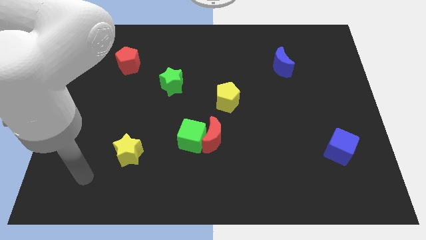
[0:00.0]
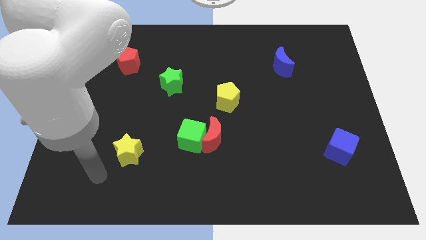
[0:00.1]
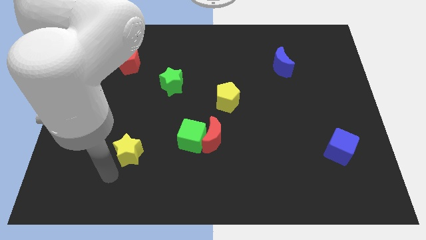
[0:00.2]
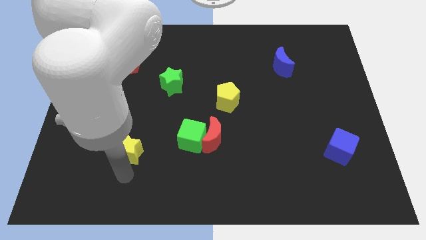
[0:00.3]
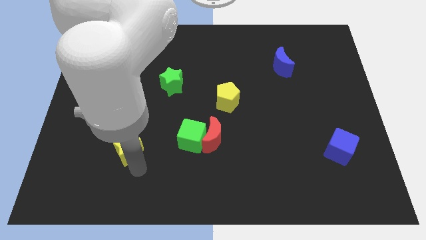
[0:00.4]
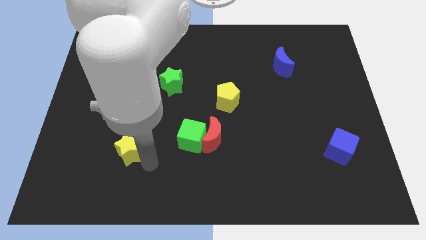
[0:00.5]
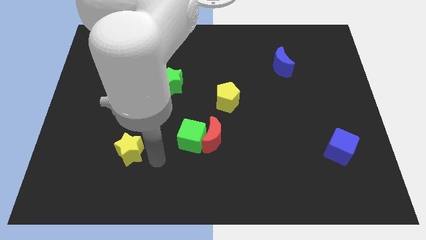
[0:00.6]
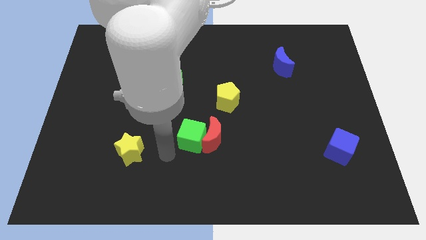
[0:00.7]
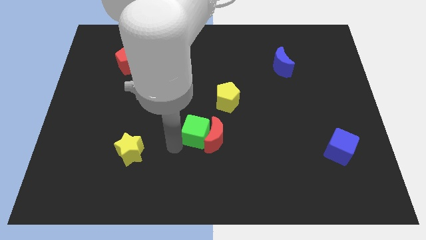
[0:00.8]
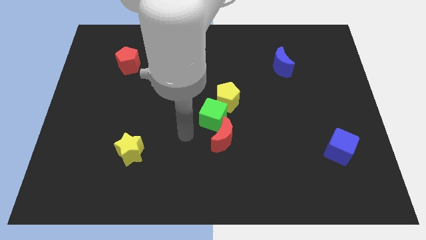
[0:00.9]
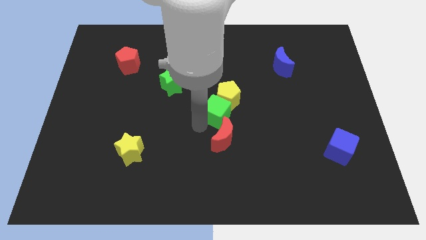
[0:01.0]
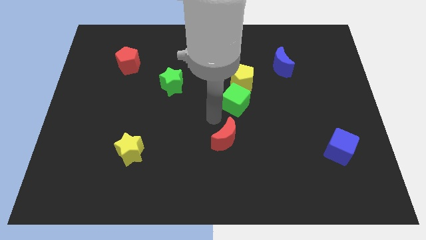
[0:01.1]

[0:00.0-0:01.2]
separate the red moon from the green cube

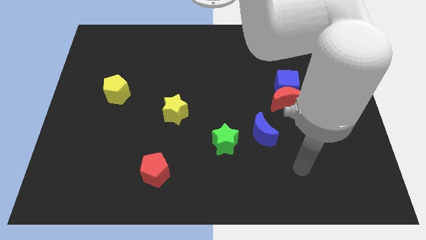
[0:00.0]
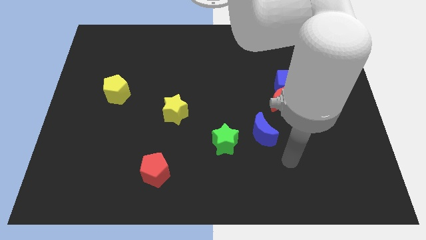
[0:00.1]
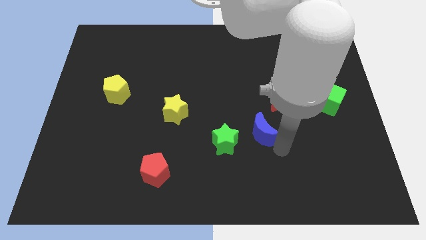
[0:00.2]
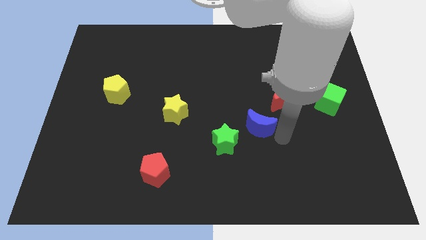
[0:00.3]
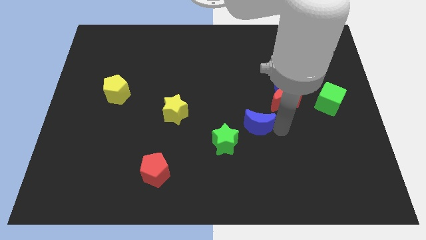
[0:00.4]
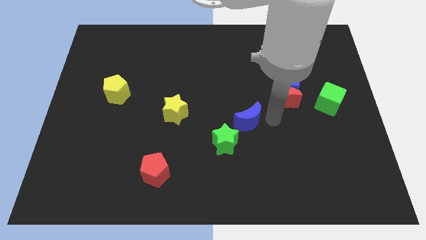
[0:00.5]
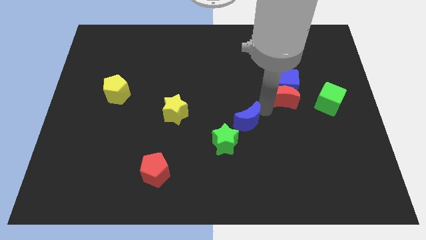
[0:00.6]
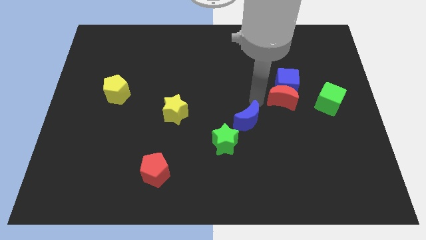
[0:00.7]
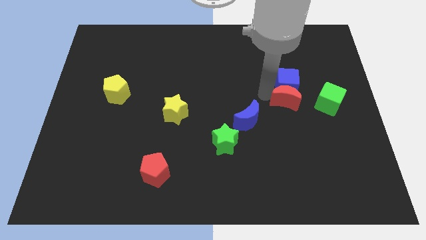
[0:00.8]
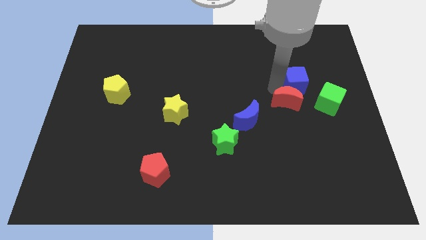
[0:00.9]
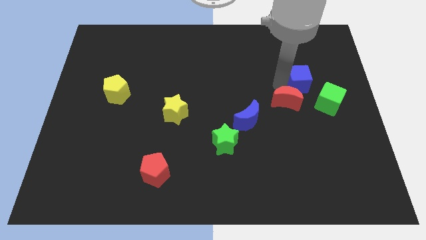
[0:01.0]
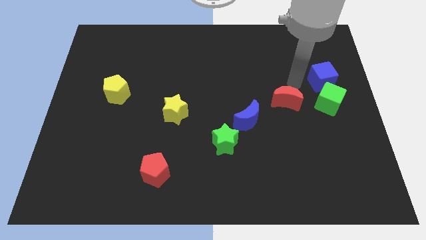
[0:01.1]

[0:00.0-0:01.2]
move the red moon away from the blue cube

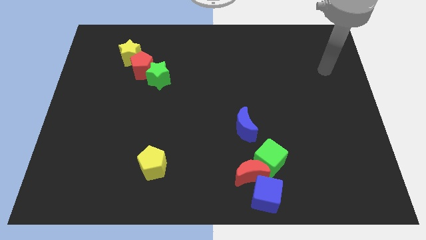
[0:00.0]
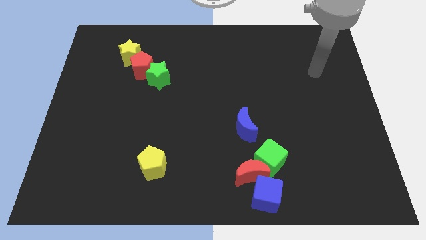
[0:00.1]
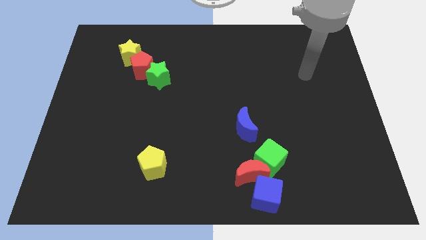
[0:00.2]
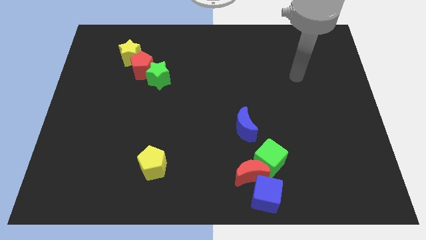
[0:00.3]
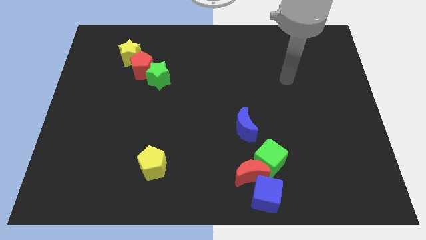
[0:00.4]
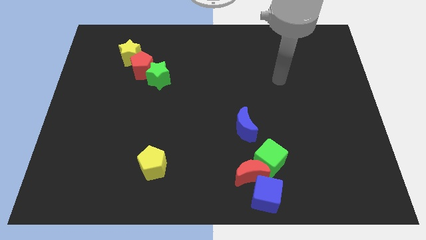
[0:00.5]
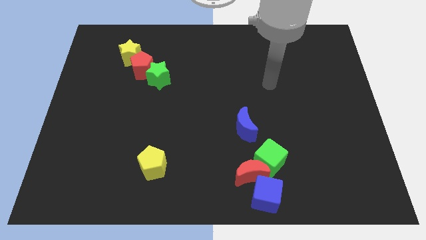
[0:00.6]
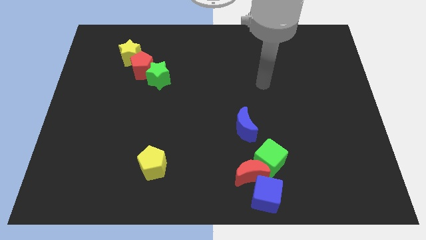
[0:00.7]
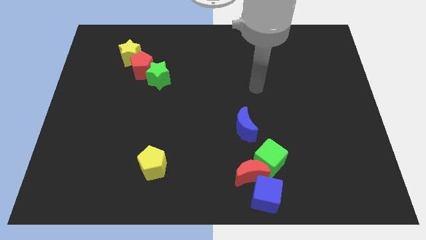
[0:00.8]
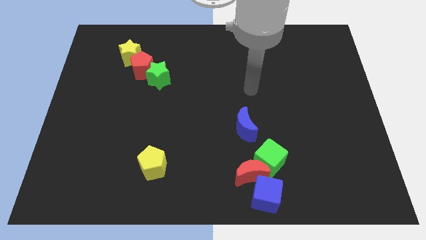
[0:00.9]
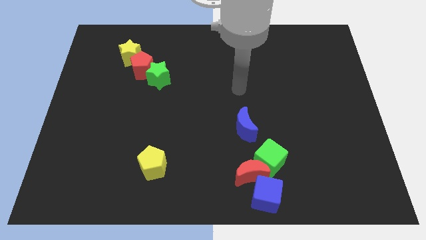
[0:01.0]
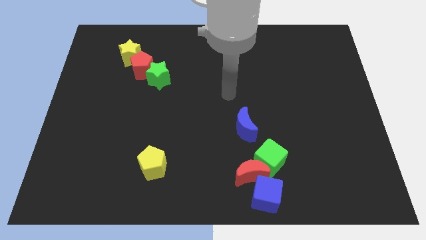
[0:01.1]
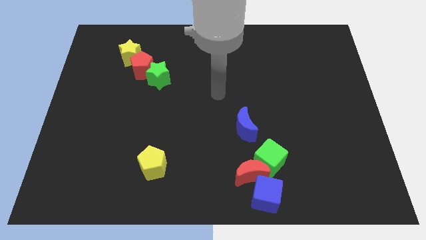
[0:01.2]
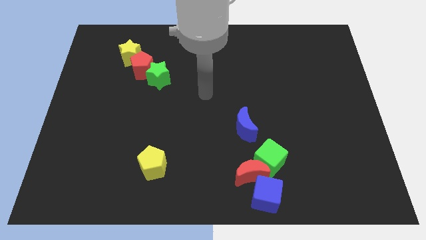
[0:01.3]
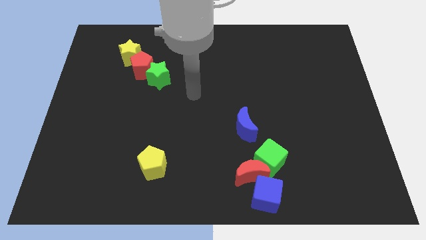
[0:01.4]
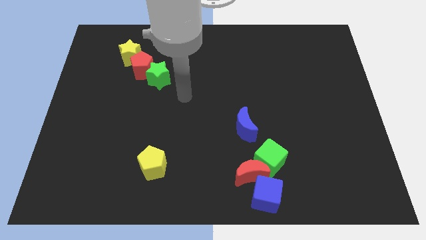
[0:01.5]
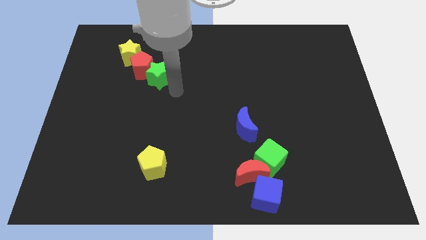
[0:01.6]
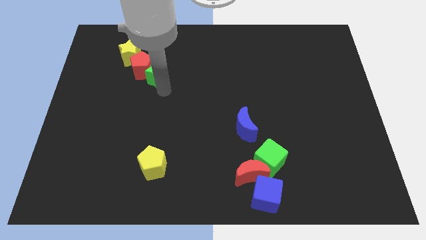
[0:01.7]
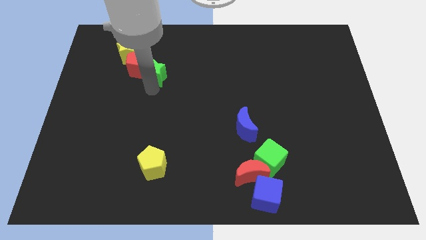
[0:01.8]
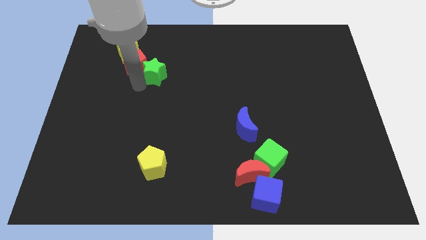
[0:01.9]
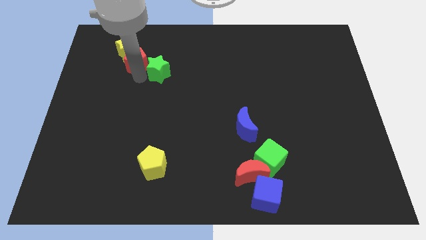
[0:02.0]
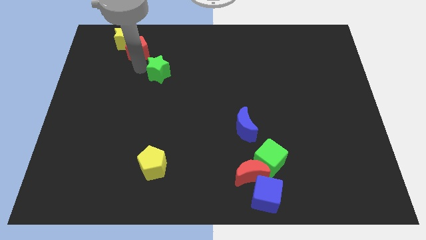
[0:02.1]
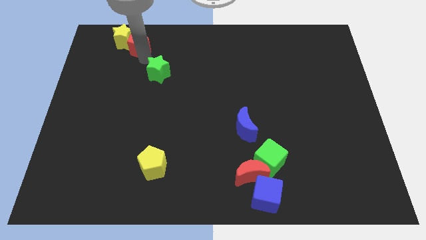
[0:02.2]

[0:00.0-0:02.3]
pull the green star apart from the red pentagon

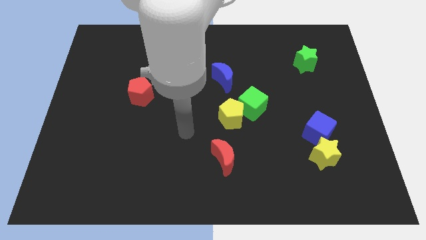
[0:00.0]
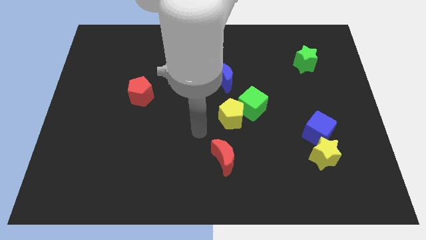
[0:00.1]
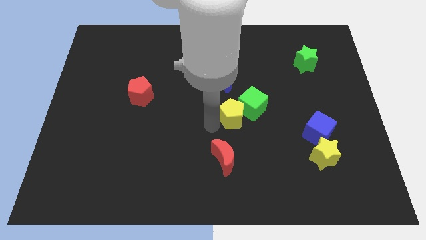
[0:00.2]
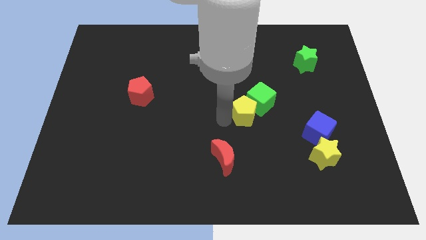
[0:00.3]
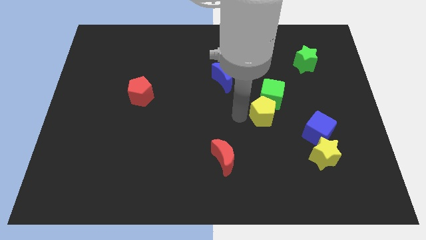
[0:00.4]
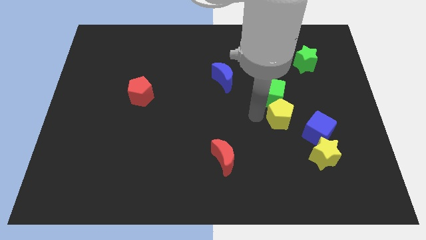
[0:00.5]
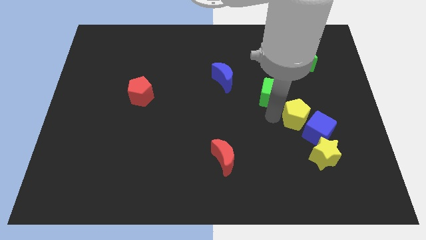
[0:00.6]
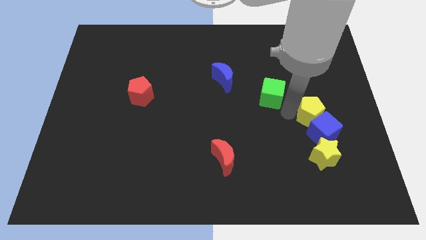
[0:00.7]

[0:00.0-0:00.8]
move the green cube away from the yellow pentagon

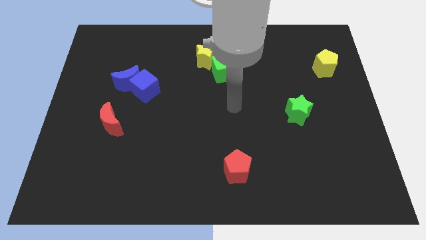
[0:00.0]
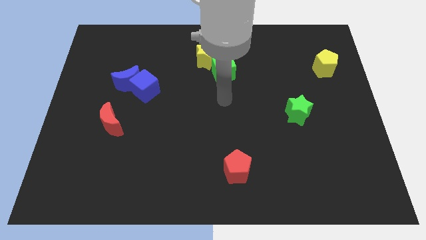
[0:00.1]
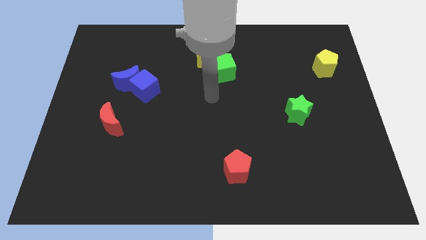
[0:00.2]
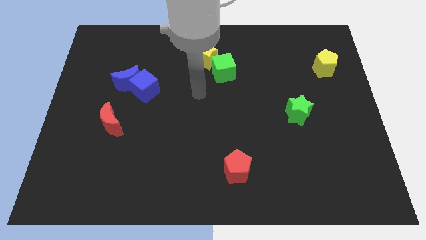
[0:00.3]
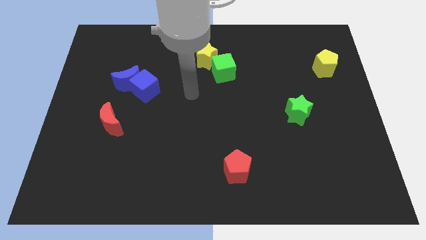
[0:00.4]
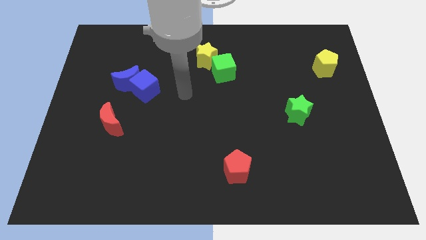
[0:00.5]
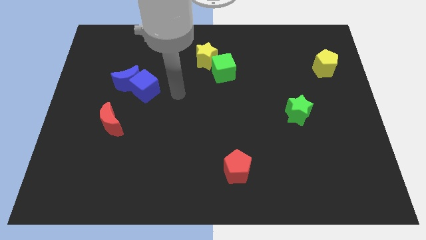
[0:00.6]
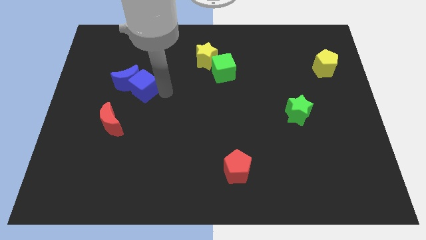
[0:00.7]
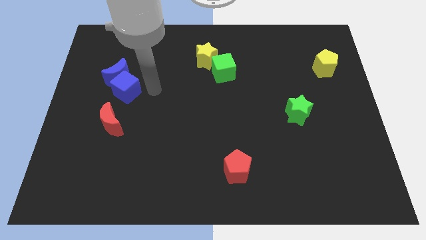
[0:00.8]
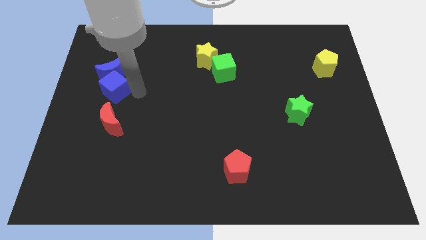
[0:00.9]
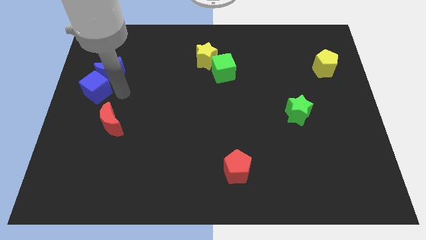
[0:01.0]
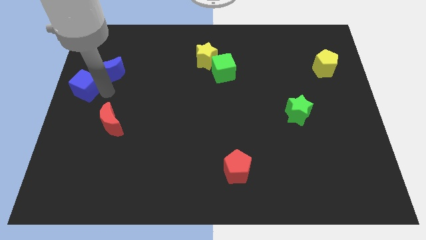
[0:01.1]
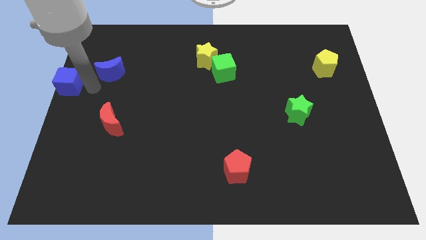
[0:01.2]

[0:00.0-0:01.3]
separate the blue moon from the blue cube

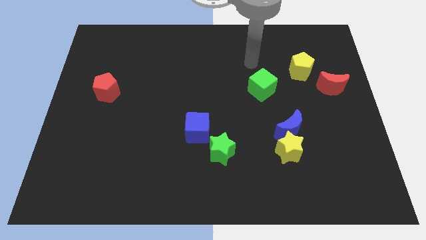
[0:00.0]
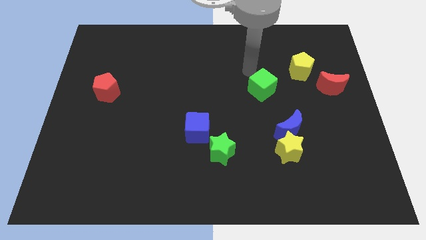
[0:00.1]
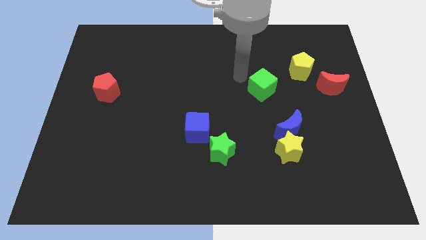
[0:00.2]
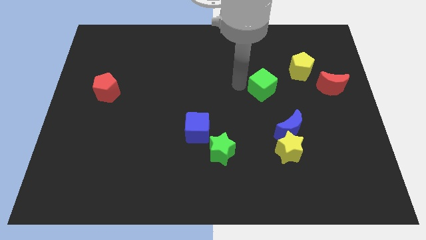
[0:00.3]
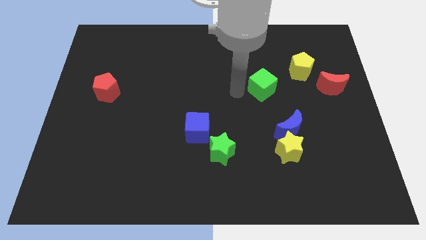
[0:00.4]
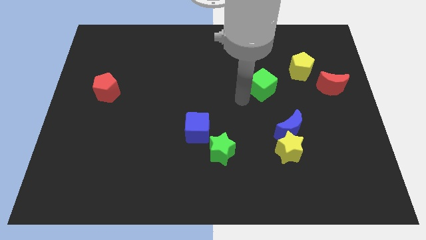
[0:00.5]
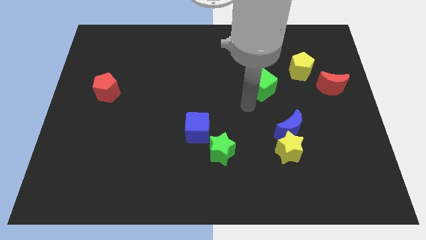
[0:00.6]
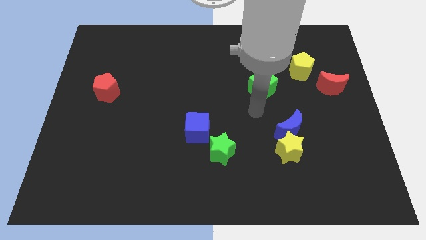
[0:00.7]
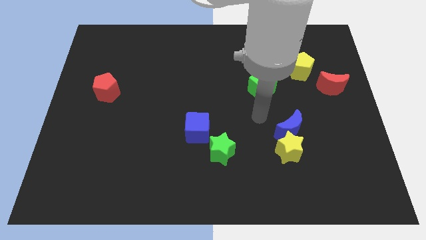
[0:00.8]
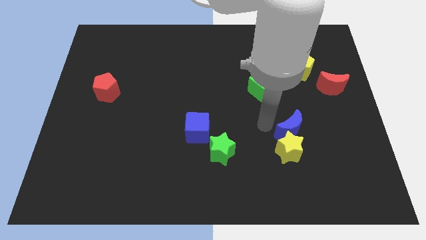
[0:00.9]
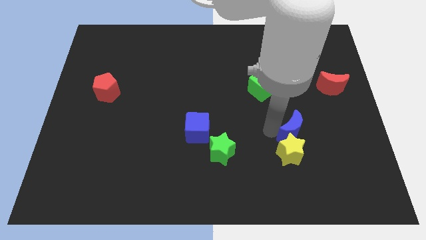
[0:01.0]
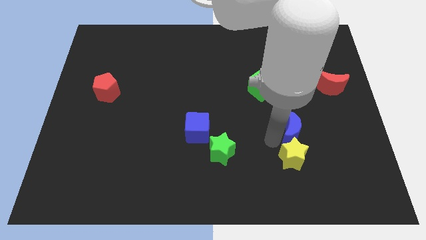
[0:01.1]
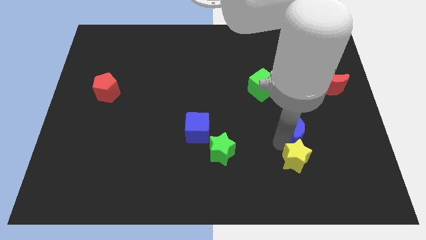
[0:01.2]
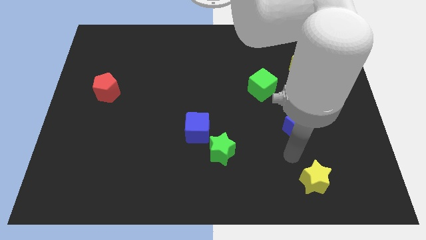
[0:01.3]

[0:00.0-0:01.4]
separate the blue moon from the yellow star

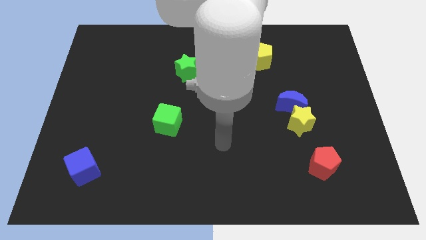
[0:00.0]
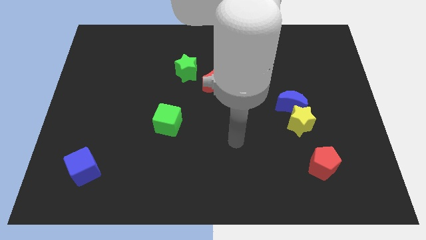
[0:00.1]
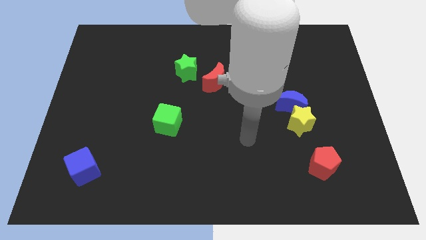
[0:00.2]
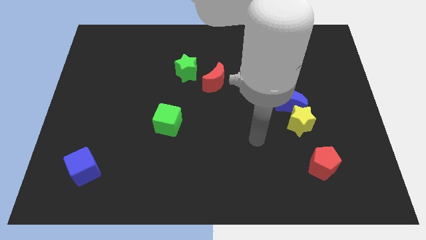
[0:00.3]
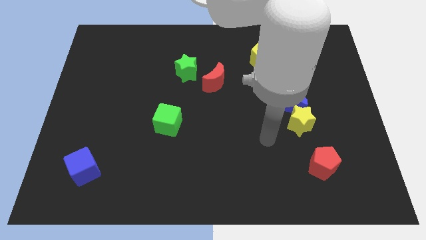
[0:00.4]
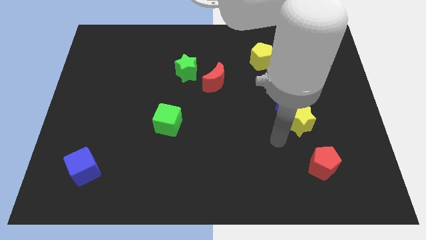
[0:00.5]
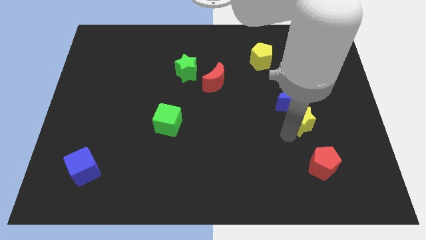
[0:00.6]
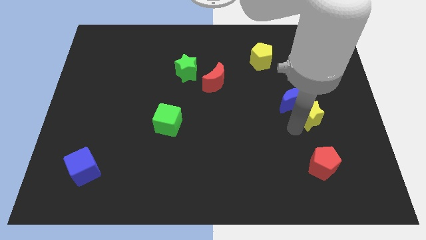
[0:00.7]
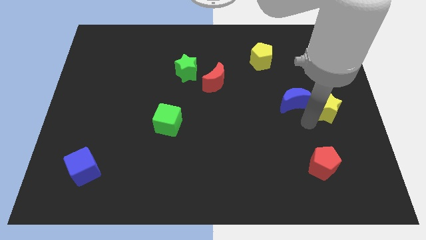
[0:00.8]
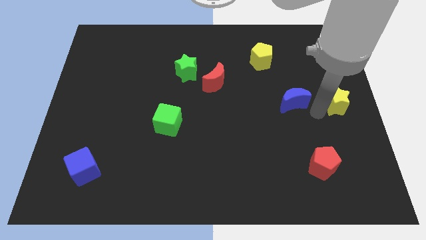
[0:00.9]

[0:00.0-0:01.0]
move the blue moon away from the yellow star

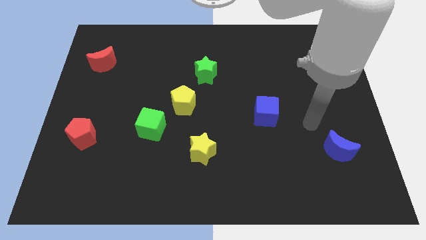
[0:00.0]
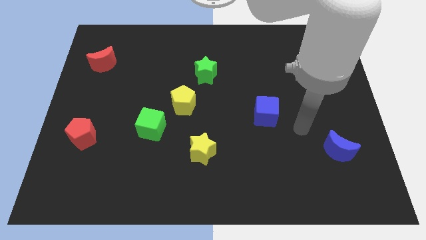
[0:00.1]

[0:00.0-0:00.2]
separate the green cube from the yellow pentagon
